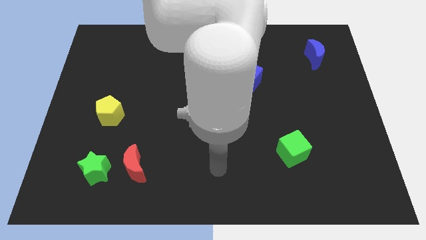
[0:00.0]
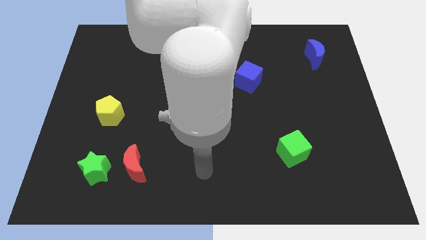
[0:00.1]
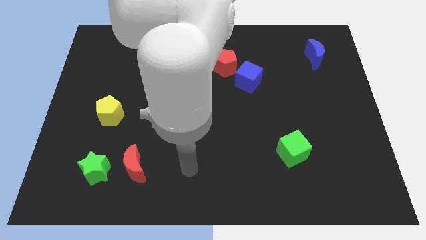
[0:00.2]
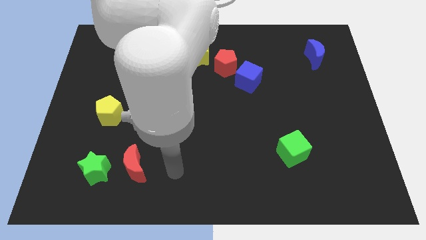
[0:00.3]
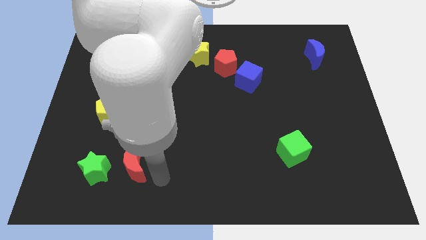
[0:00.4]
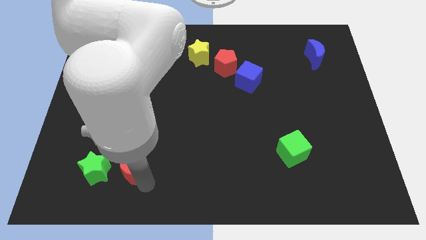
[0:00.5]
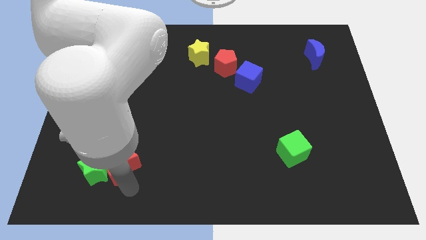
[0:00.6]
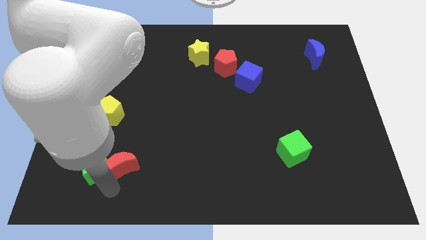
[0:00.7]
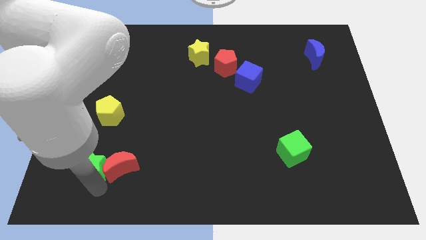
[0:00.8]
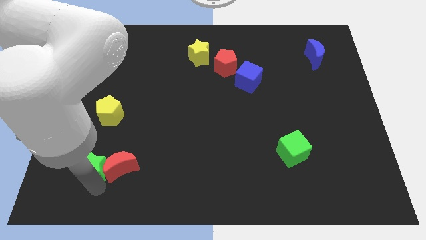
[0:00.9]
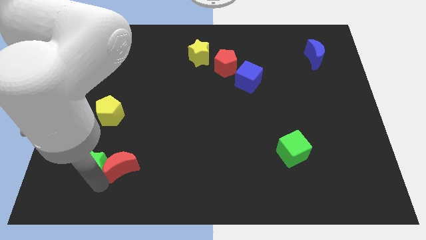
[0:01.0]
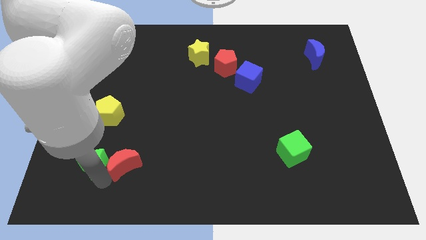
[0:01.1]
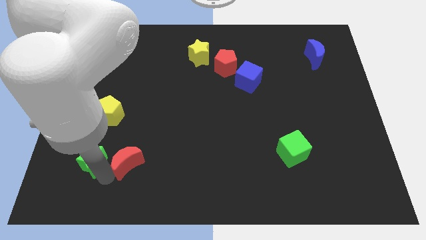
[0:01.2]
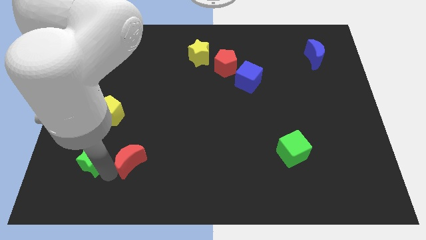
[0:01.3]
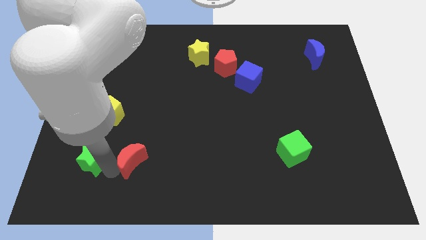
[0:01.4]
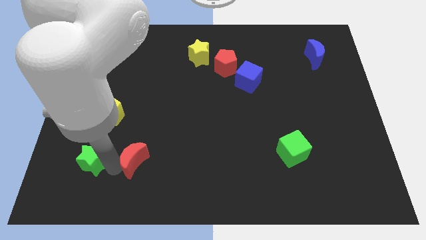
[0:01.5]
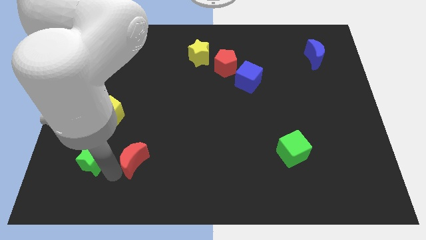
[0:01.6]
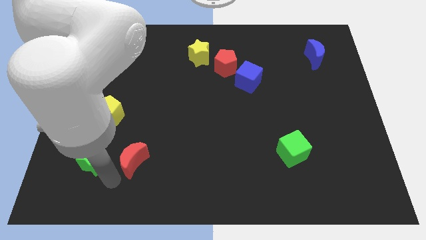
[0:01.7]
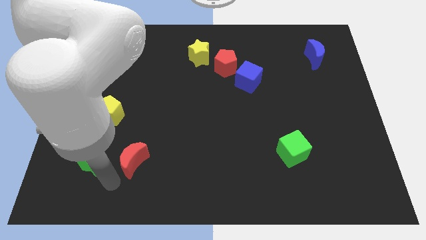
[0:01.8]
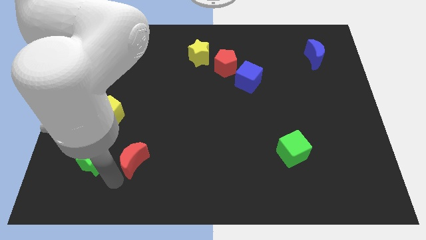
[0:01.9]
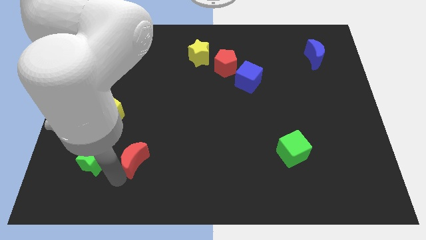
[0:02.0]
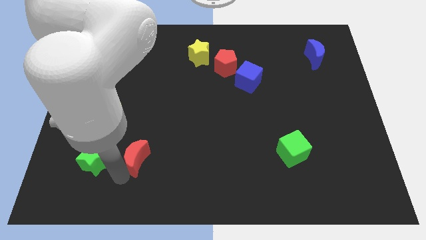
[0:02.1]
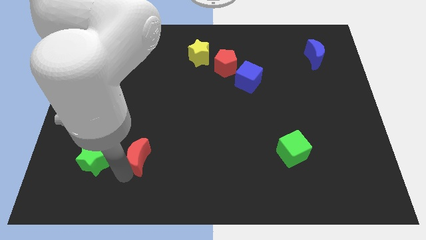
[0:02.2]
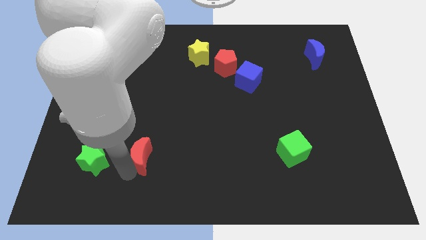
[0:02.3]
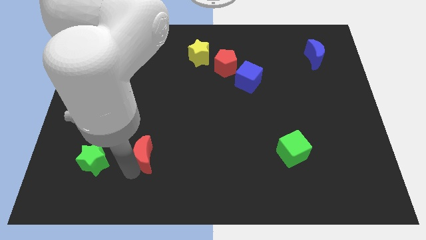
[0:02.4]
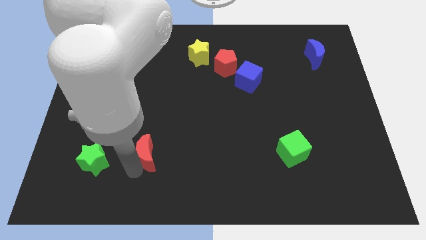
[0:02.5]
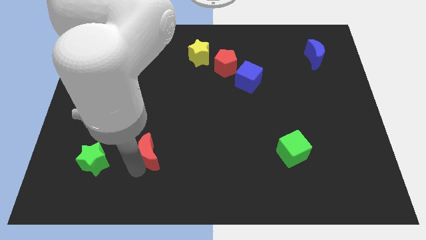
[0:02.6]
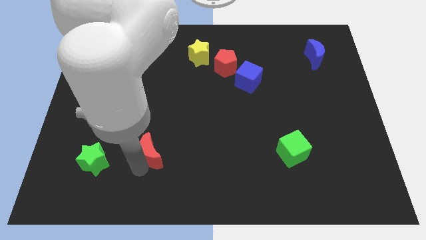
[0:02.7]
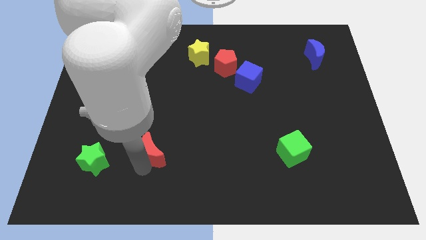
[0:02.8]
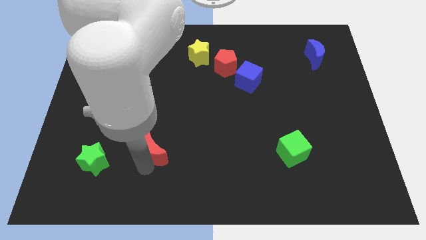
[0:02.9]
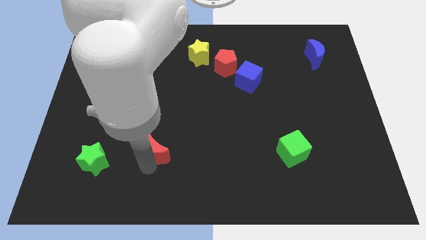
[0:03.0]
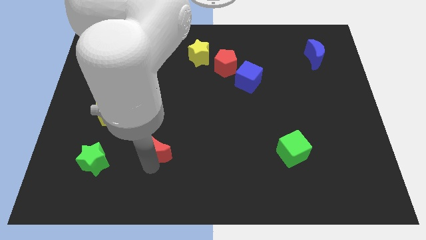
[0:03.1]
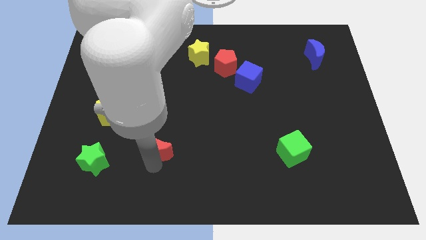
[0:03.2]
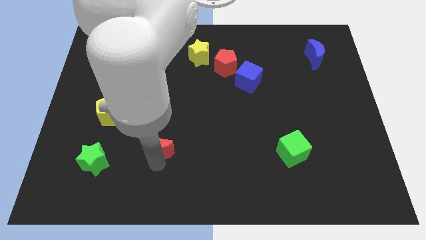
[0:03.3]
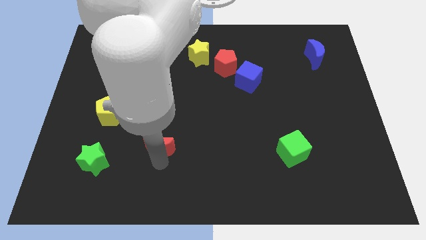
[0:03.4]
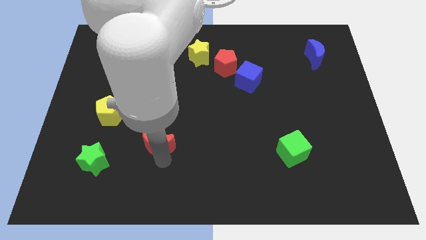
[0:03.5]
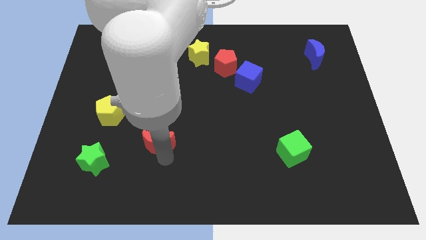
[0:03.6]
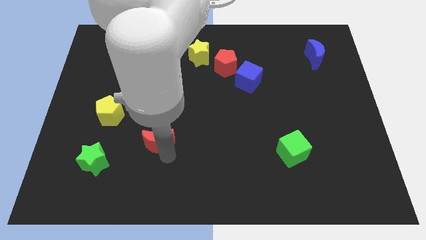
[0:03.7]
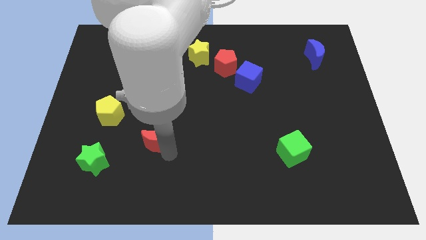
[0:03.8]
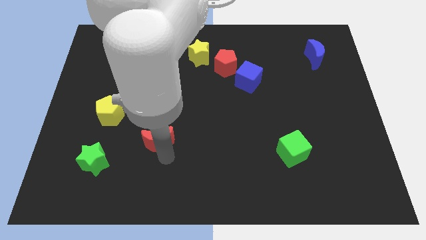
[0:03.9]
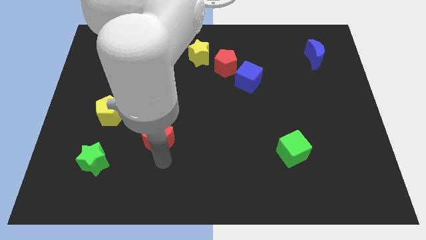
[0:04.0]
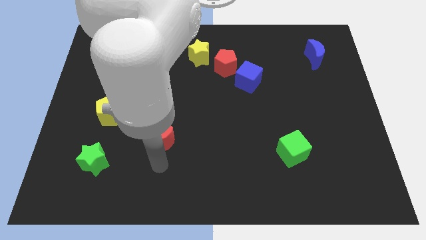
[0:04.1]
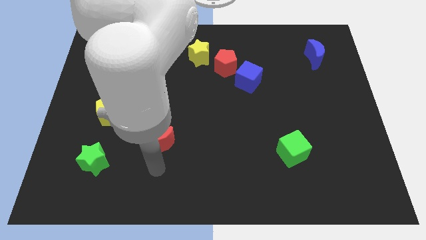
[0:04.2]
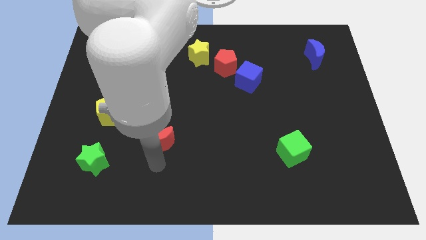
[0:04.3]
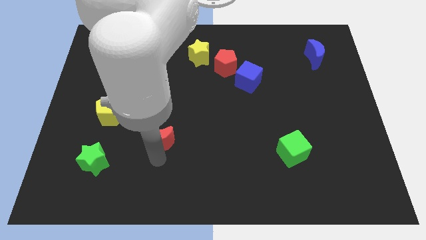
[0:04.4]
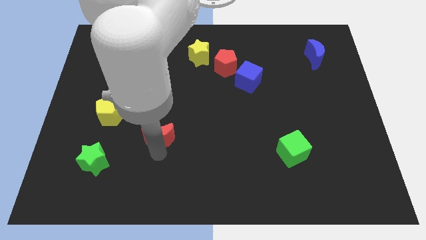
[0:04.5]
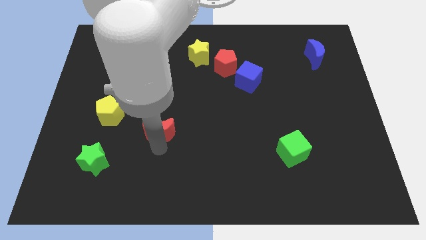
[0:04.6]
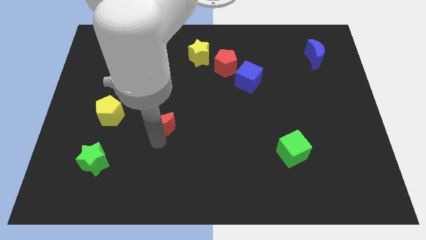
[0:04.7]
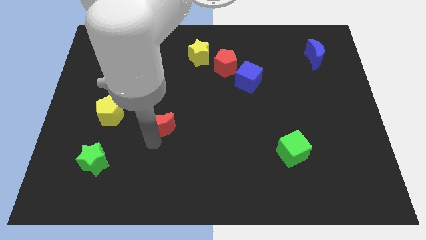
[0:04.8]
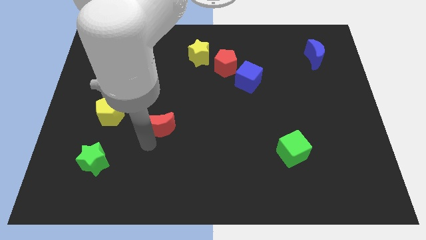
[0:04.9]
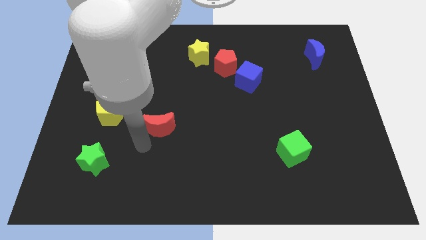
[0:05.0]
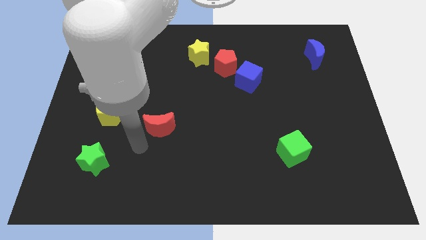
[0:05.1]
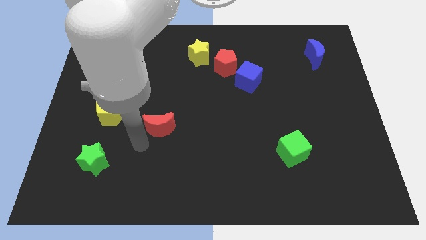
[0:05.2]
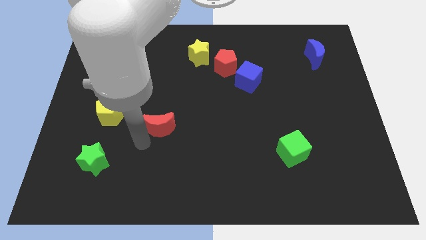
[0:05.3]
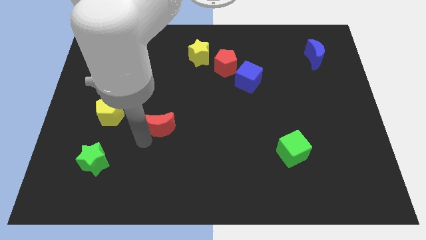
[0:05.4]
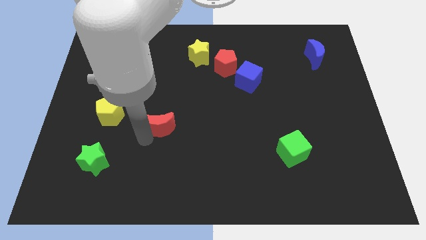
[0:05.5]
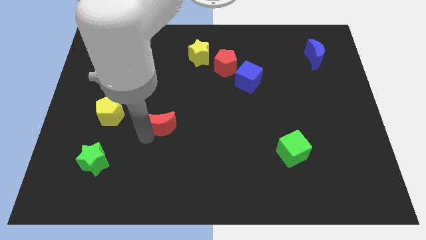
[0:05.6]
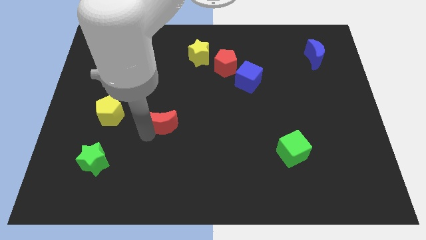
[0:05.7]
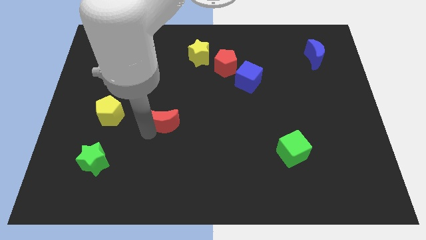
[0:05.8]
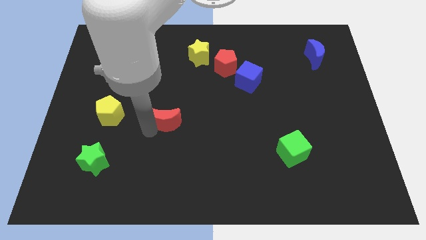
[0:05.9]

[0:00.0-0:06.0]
move the red moon to the center of the board
